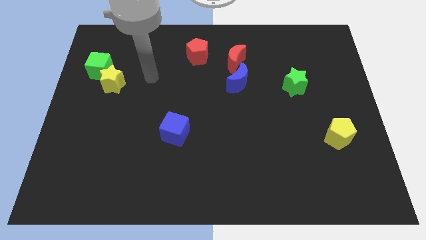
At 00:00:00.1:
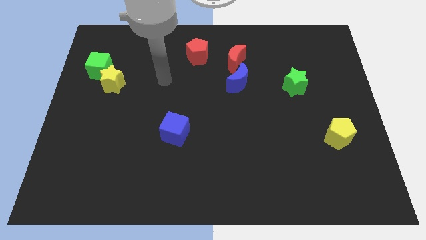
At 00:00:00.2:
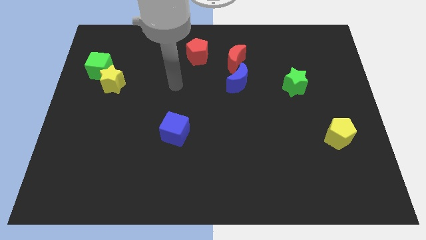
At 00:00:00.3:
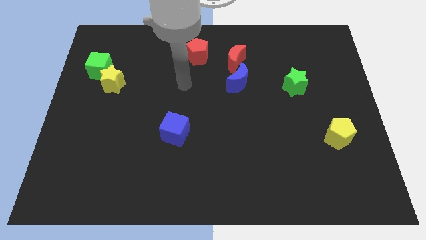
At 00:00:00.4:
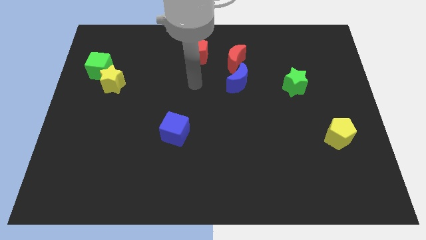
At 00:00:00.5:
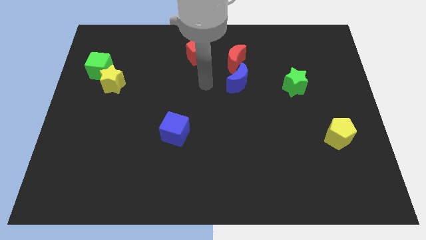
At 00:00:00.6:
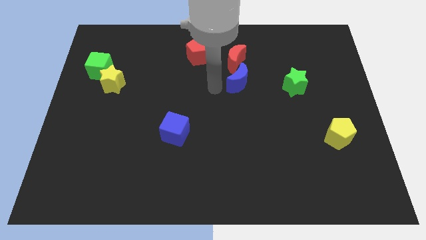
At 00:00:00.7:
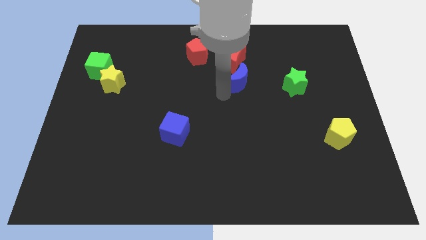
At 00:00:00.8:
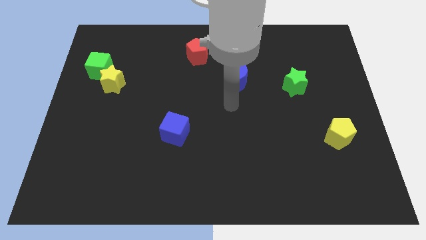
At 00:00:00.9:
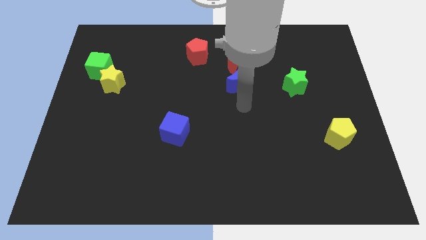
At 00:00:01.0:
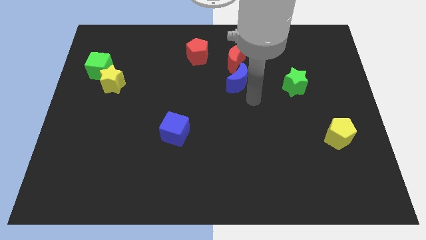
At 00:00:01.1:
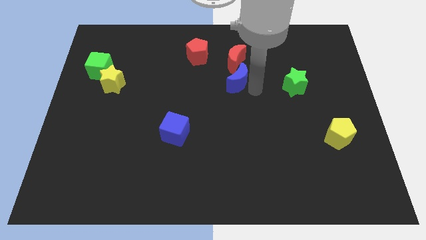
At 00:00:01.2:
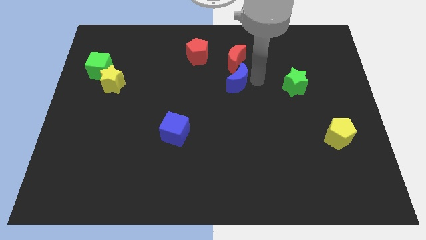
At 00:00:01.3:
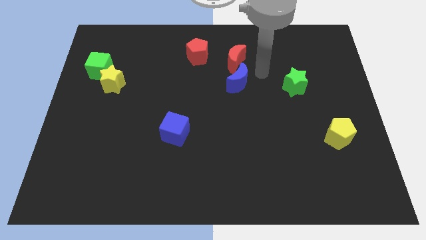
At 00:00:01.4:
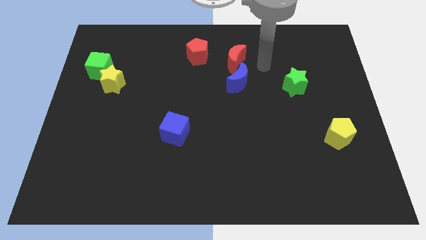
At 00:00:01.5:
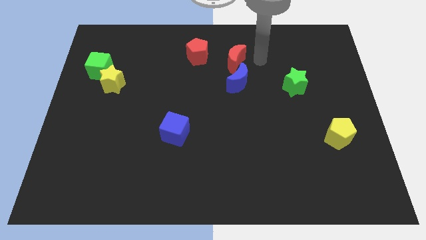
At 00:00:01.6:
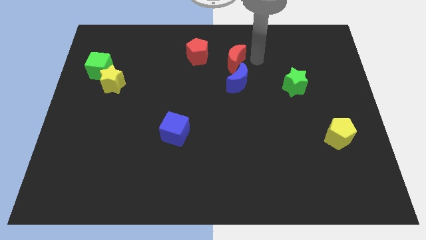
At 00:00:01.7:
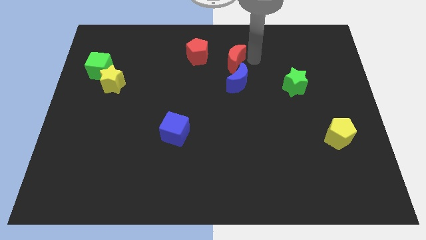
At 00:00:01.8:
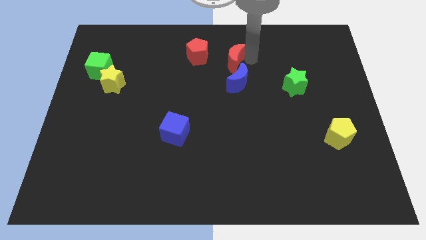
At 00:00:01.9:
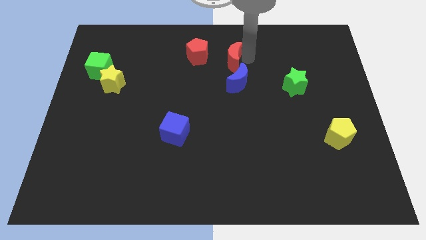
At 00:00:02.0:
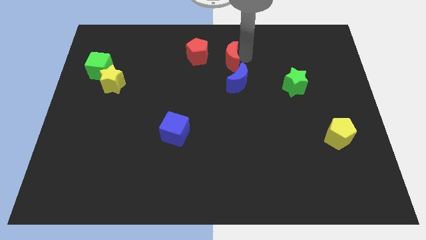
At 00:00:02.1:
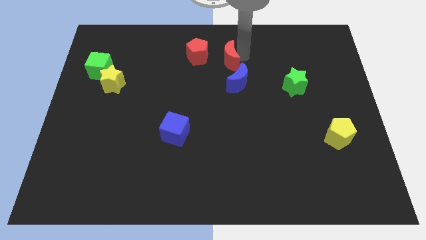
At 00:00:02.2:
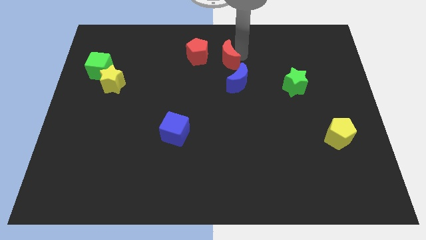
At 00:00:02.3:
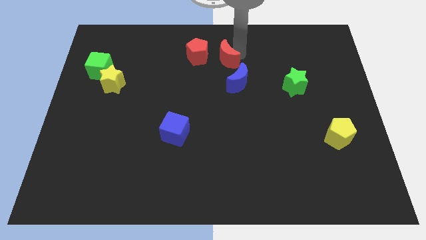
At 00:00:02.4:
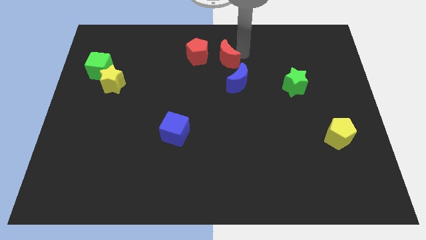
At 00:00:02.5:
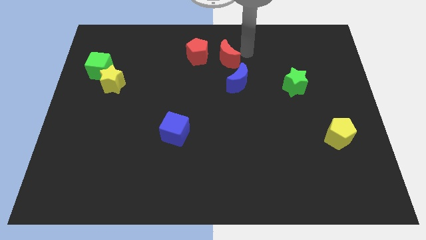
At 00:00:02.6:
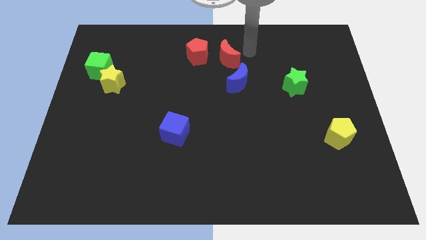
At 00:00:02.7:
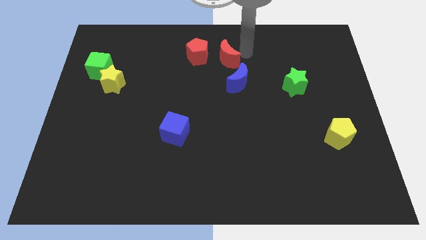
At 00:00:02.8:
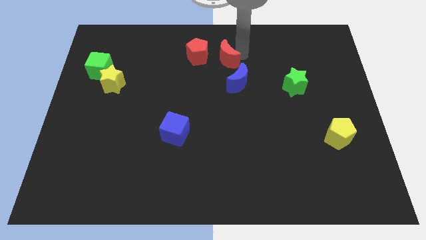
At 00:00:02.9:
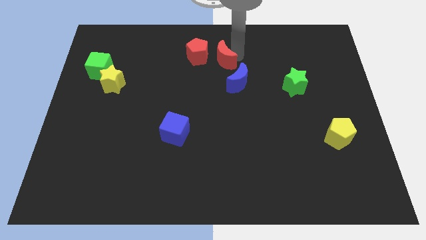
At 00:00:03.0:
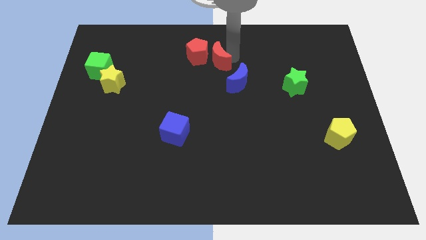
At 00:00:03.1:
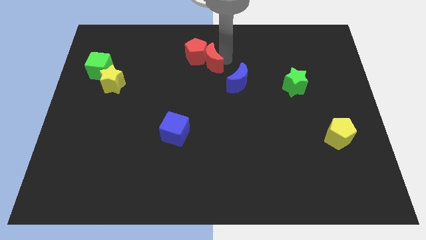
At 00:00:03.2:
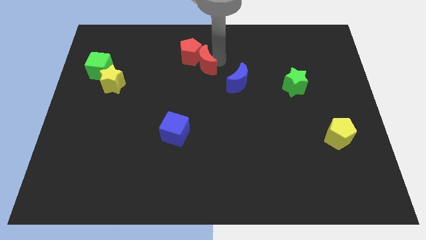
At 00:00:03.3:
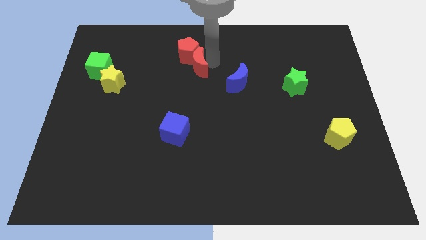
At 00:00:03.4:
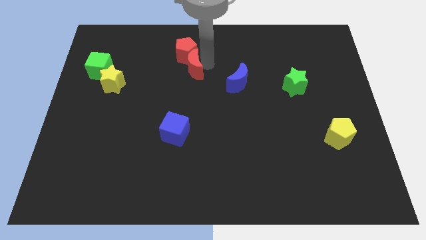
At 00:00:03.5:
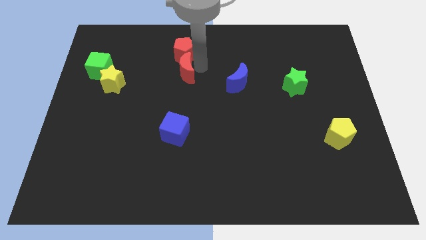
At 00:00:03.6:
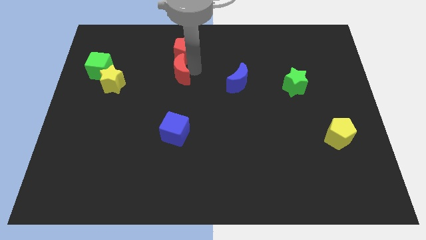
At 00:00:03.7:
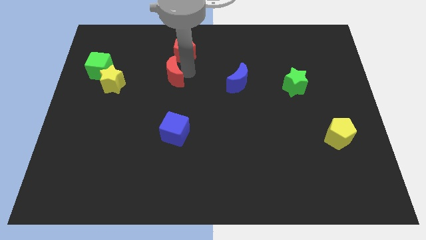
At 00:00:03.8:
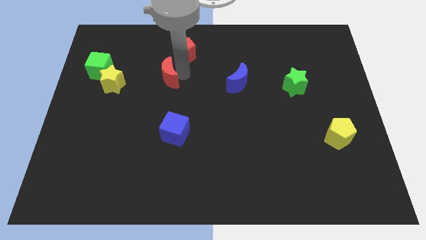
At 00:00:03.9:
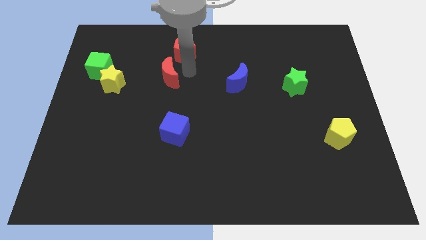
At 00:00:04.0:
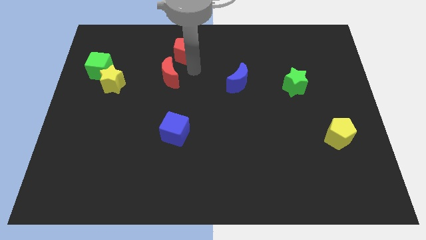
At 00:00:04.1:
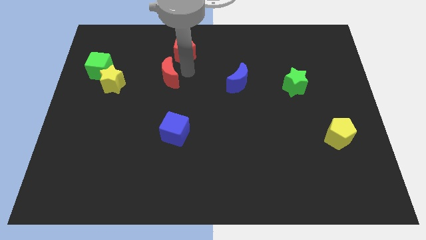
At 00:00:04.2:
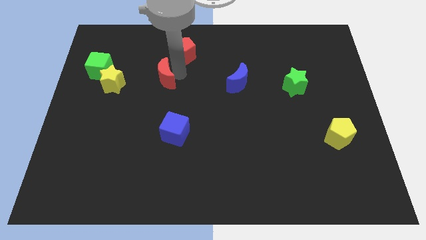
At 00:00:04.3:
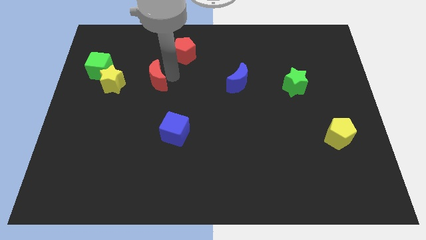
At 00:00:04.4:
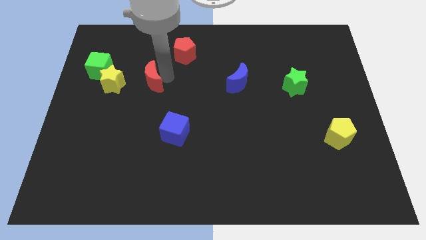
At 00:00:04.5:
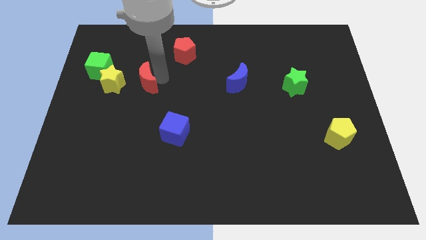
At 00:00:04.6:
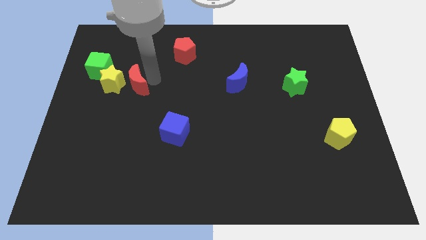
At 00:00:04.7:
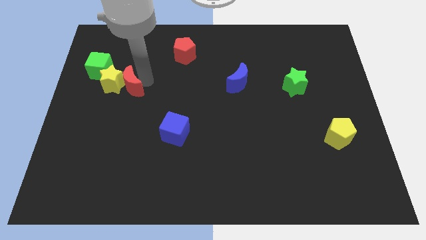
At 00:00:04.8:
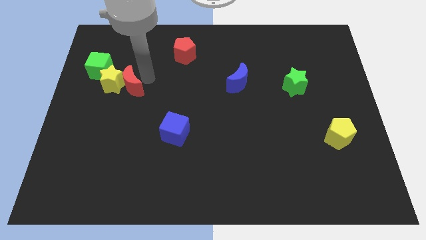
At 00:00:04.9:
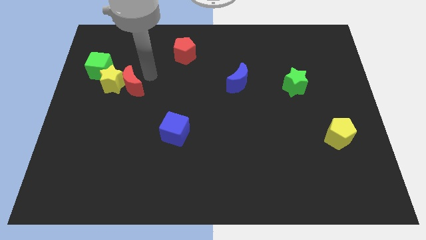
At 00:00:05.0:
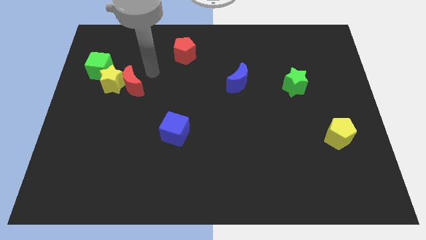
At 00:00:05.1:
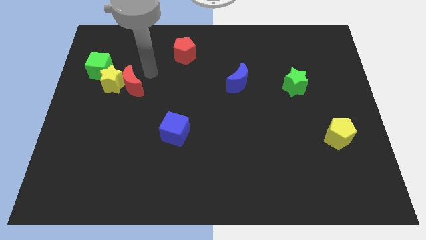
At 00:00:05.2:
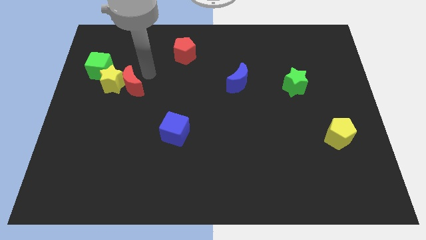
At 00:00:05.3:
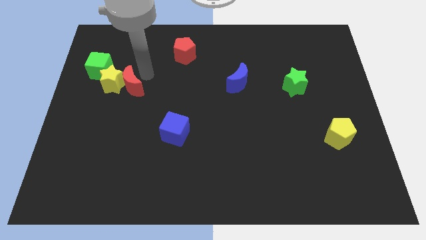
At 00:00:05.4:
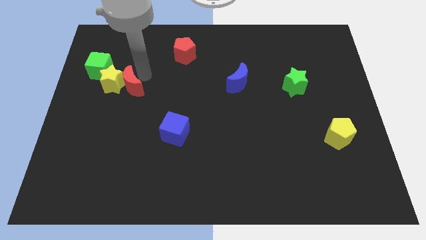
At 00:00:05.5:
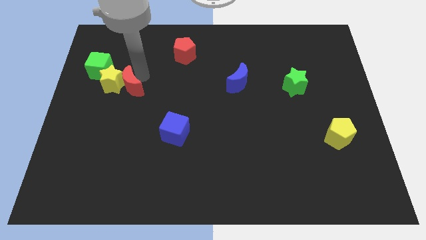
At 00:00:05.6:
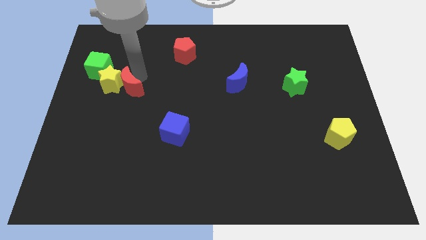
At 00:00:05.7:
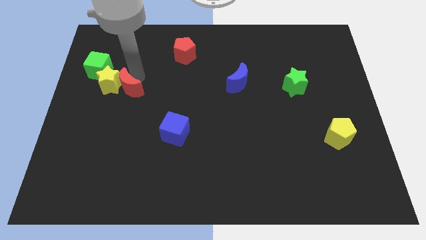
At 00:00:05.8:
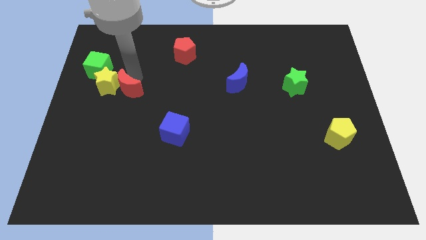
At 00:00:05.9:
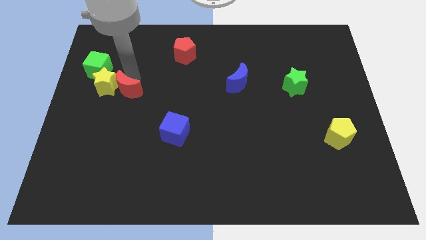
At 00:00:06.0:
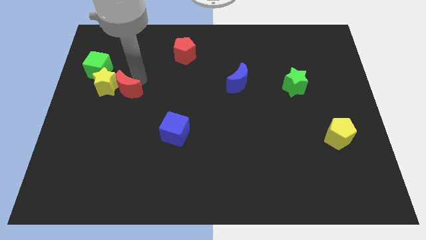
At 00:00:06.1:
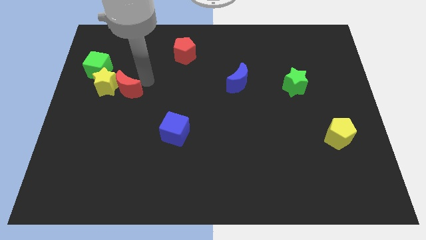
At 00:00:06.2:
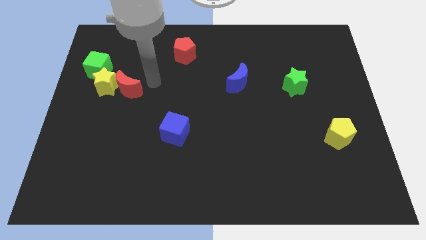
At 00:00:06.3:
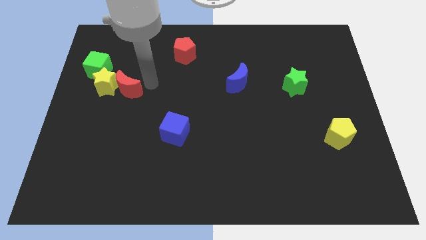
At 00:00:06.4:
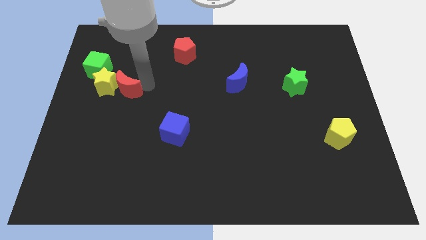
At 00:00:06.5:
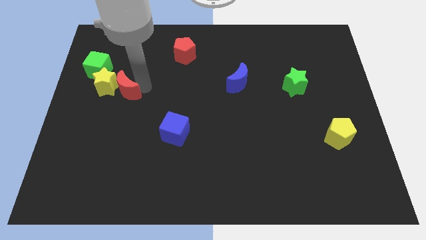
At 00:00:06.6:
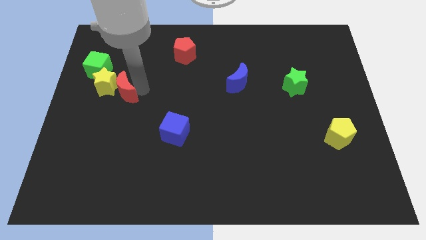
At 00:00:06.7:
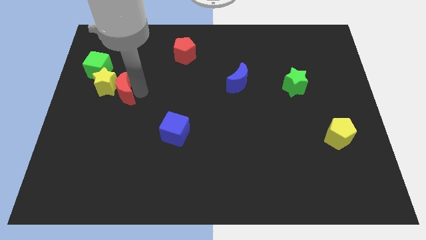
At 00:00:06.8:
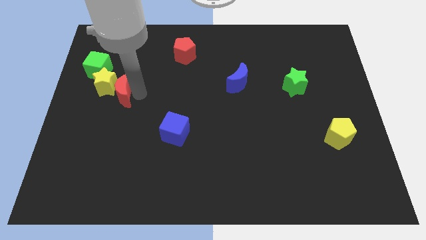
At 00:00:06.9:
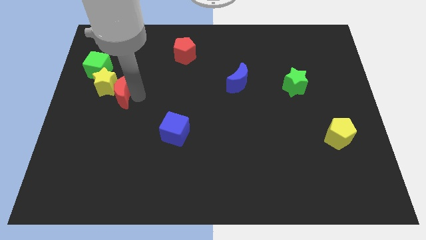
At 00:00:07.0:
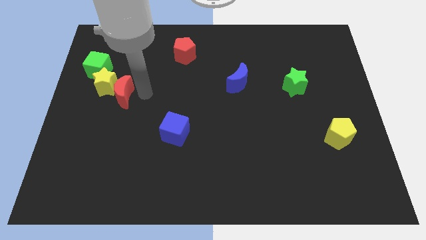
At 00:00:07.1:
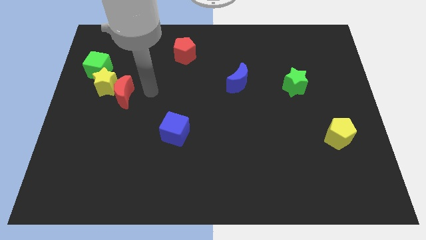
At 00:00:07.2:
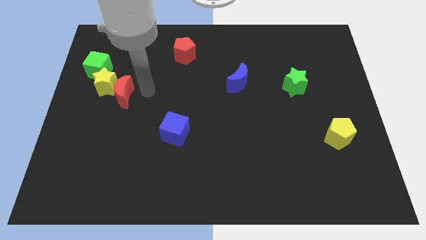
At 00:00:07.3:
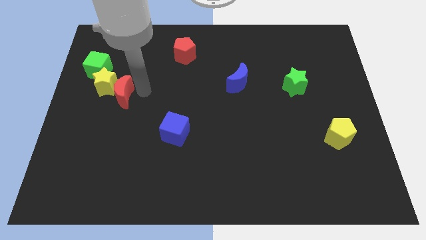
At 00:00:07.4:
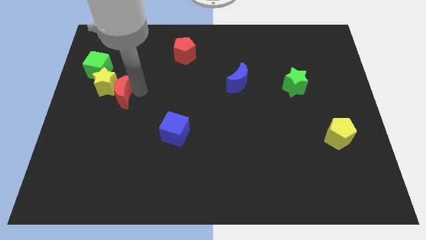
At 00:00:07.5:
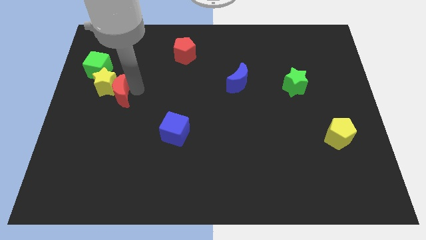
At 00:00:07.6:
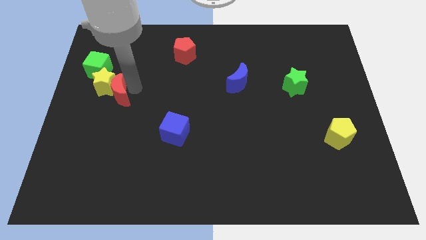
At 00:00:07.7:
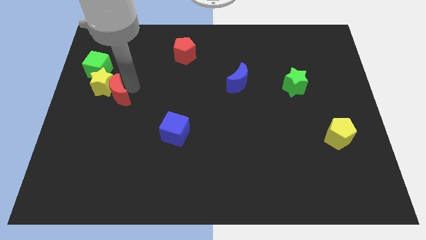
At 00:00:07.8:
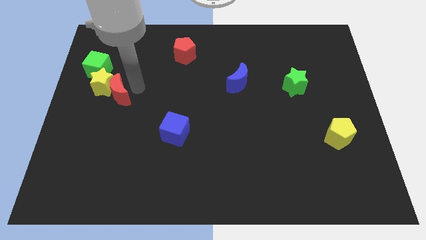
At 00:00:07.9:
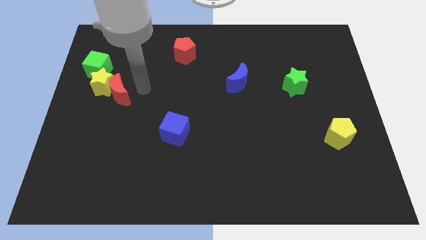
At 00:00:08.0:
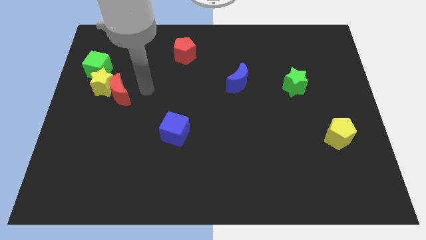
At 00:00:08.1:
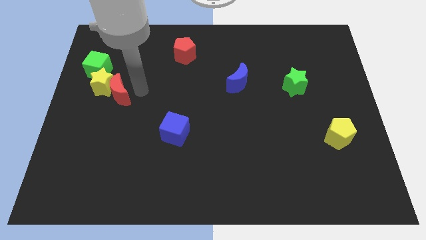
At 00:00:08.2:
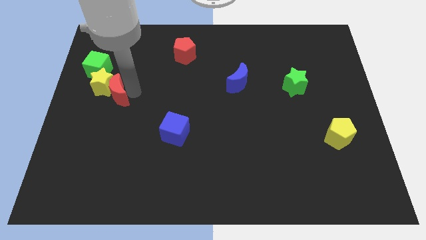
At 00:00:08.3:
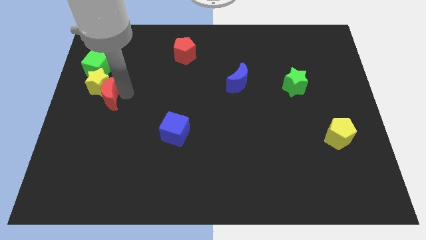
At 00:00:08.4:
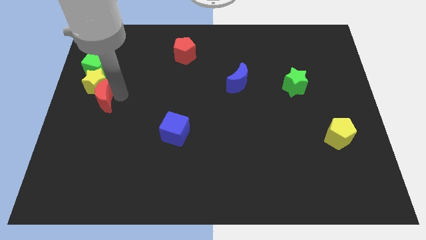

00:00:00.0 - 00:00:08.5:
push the red moon to the left side
